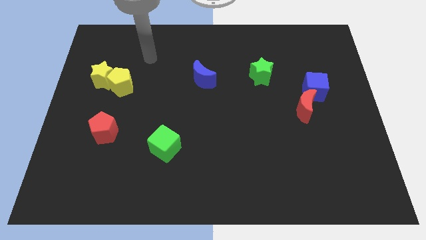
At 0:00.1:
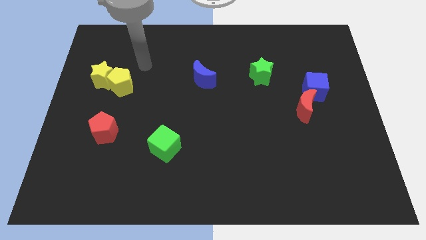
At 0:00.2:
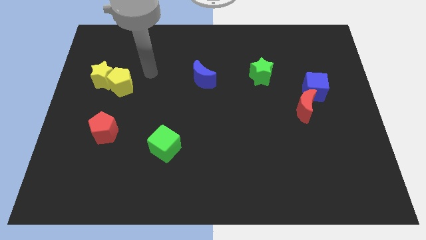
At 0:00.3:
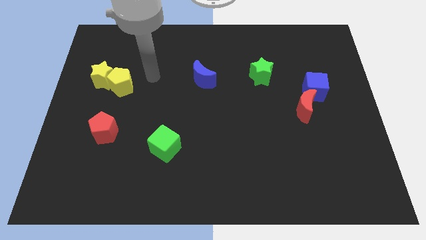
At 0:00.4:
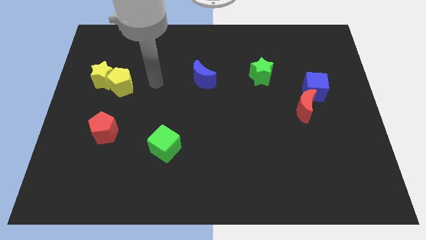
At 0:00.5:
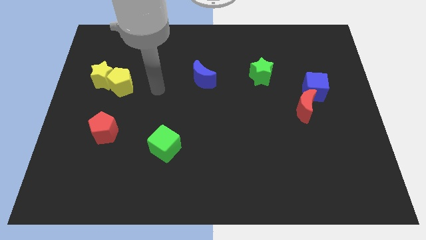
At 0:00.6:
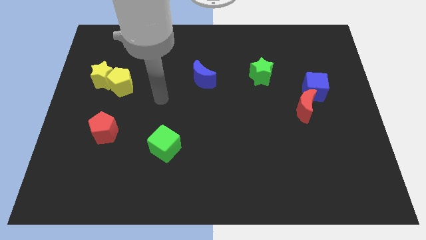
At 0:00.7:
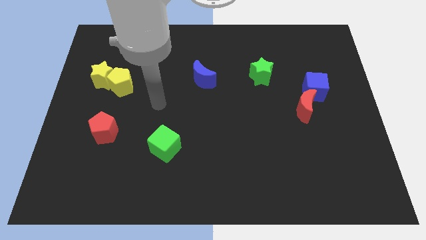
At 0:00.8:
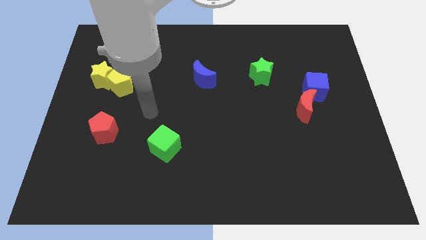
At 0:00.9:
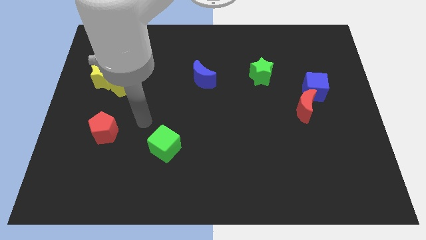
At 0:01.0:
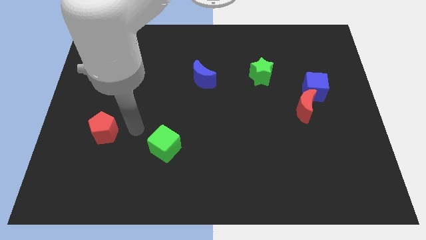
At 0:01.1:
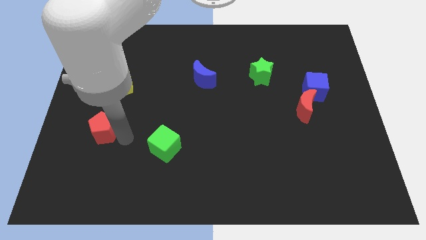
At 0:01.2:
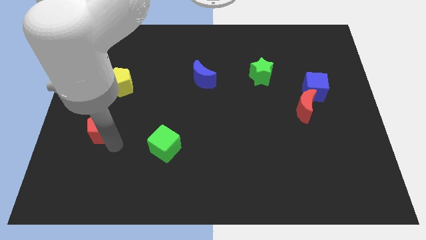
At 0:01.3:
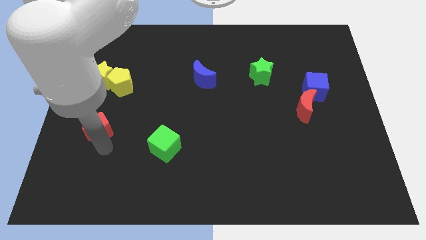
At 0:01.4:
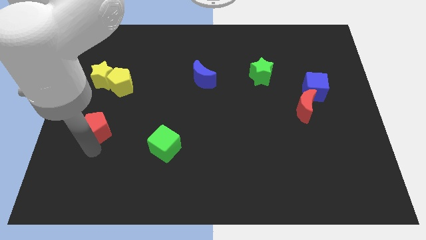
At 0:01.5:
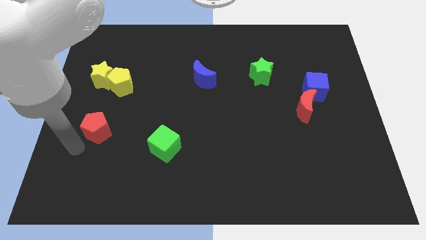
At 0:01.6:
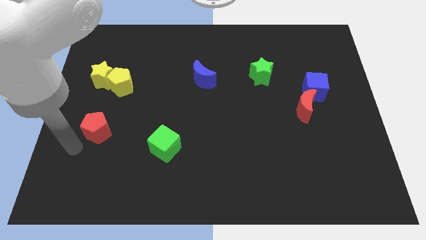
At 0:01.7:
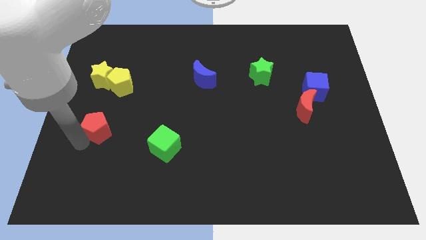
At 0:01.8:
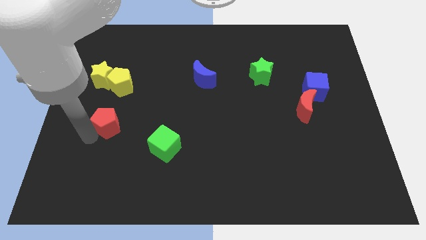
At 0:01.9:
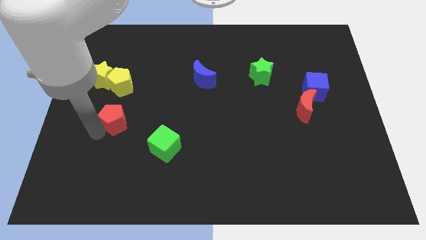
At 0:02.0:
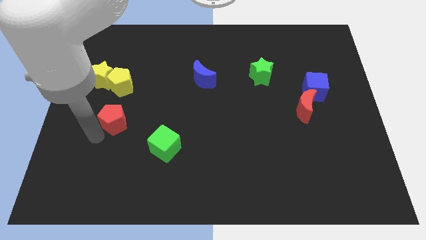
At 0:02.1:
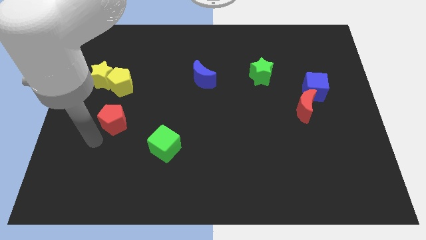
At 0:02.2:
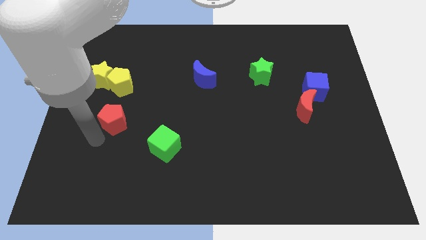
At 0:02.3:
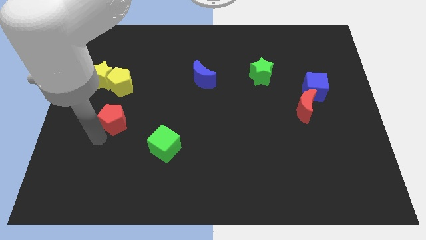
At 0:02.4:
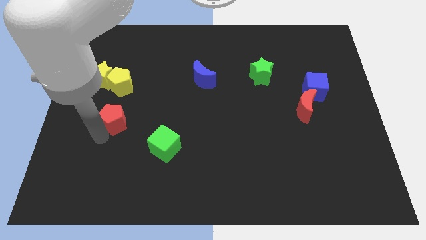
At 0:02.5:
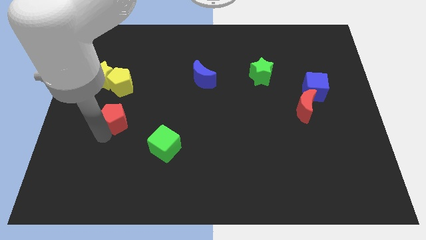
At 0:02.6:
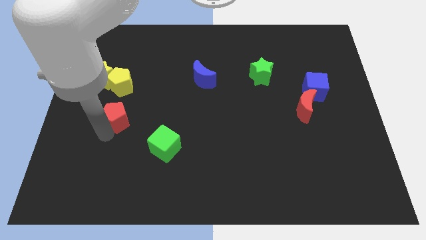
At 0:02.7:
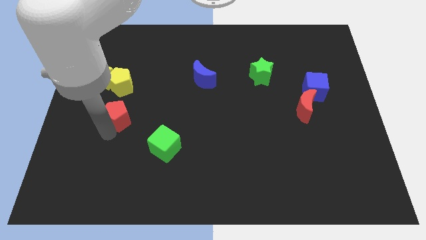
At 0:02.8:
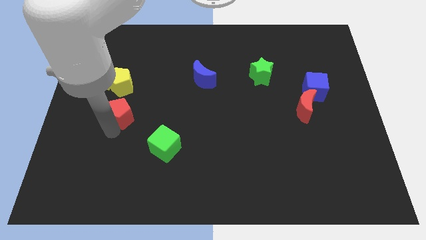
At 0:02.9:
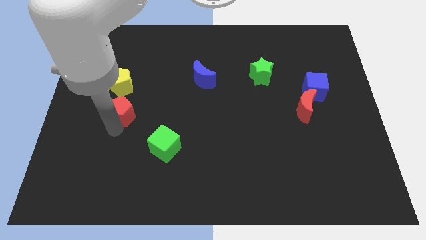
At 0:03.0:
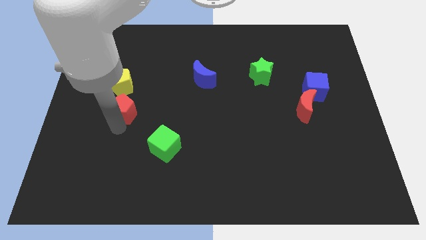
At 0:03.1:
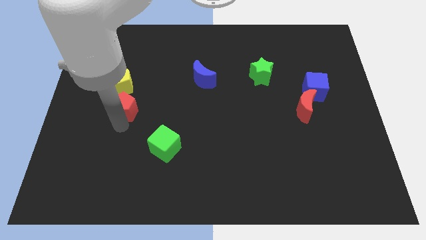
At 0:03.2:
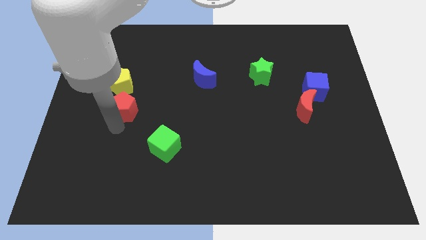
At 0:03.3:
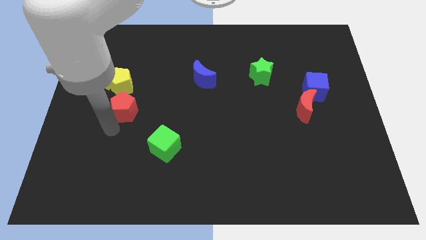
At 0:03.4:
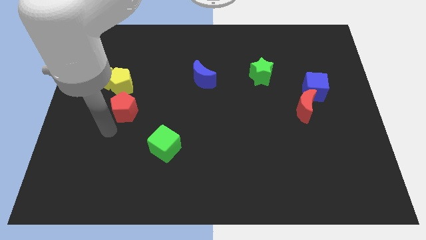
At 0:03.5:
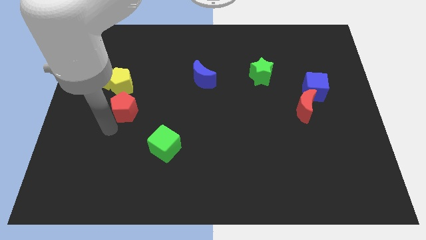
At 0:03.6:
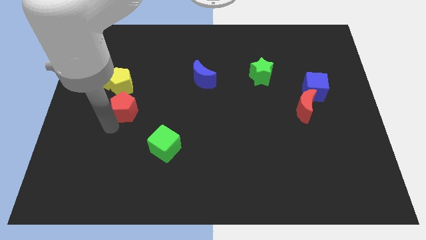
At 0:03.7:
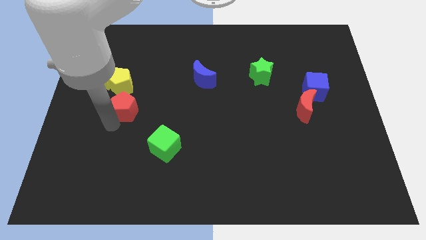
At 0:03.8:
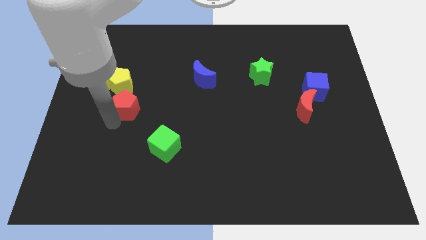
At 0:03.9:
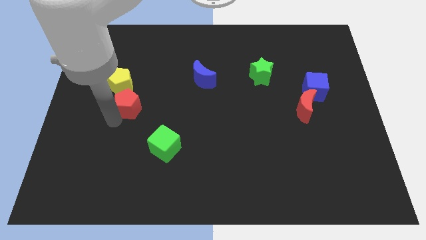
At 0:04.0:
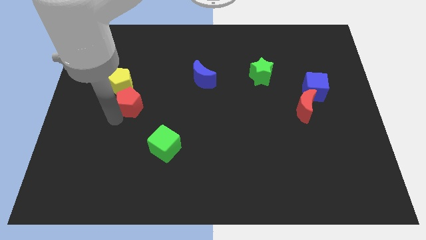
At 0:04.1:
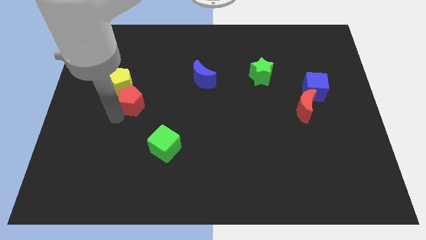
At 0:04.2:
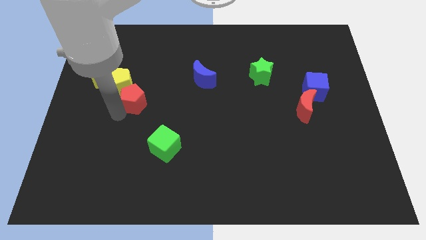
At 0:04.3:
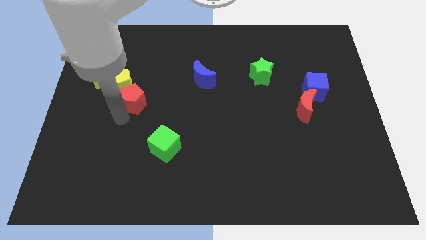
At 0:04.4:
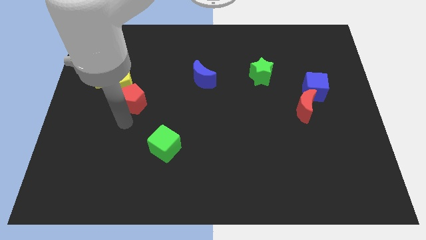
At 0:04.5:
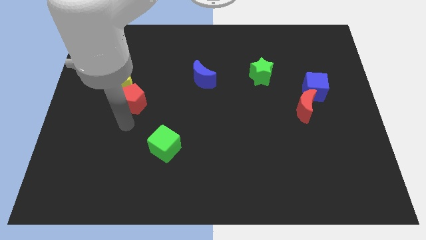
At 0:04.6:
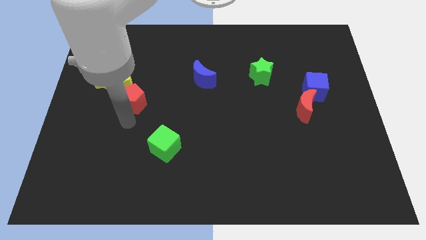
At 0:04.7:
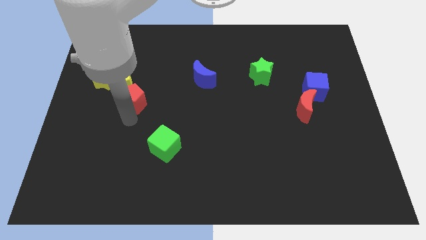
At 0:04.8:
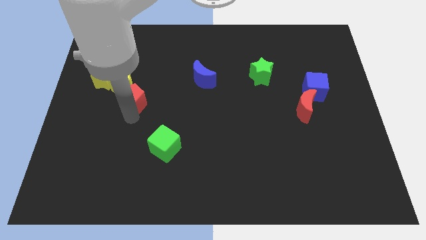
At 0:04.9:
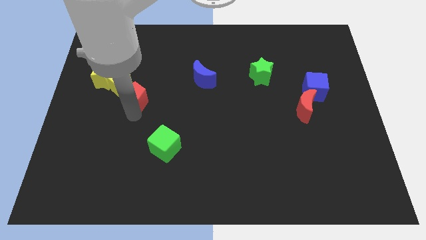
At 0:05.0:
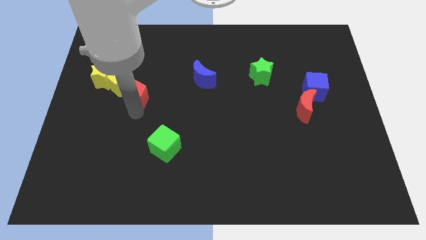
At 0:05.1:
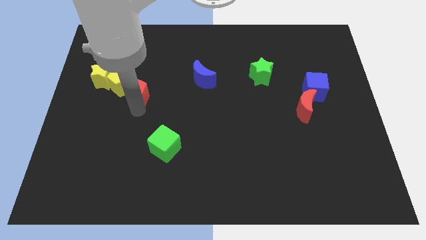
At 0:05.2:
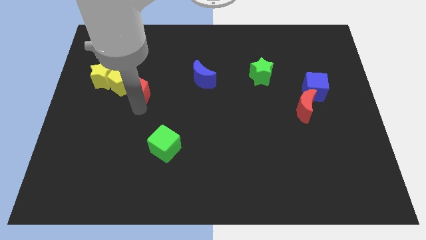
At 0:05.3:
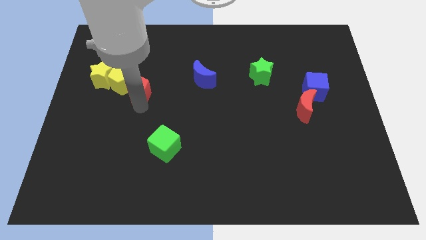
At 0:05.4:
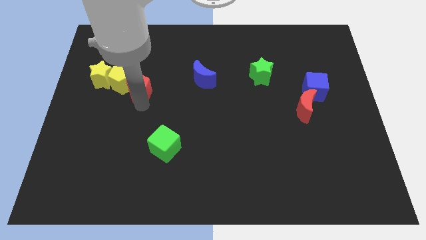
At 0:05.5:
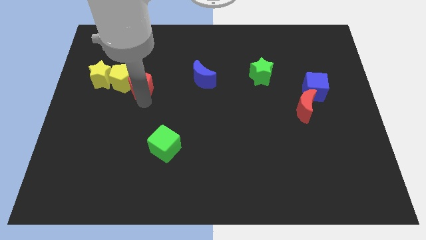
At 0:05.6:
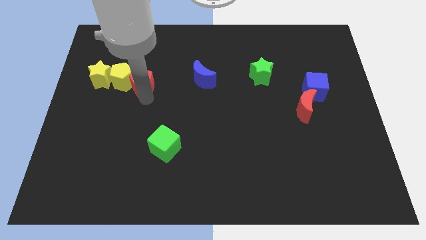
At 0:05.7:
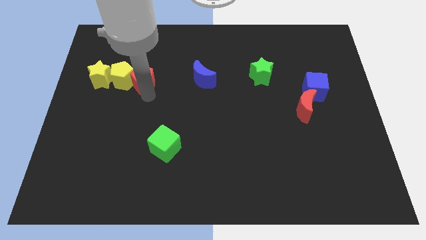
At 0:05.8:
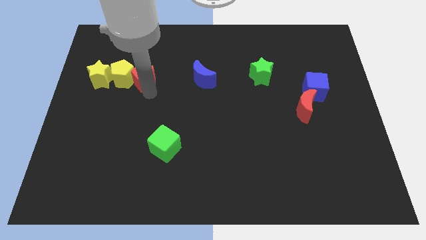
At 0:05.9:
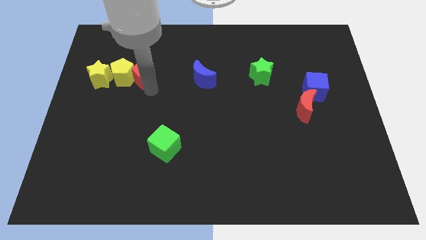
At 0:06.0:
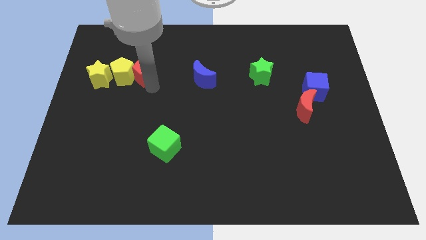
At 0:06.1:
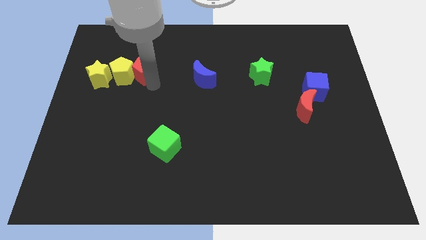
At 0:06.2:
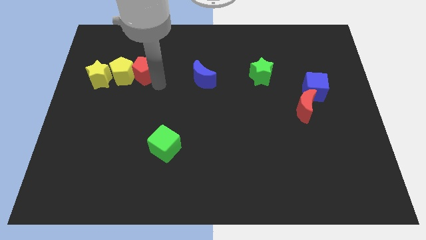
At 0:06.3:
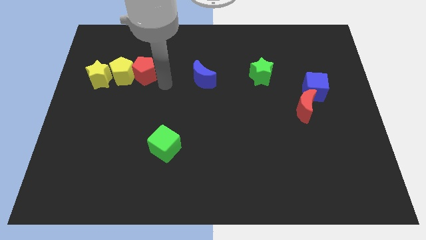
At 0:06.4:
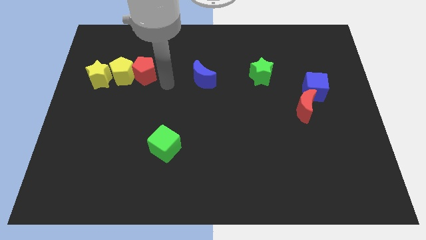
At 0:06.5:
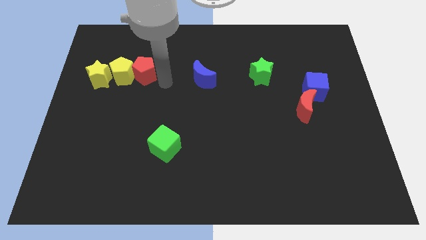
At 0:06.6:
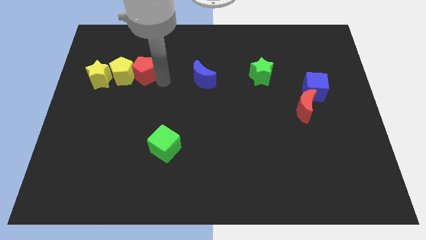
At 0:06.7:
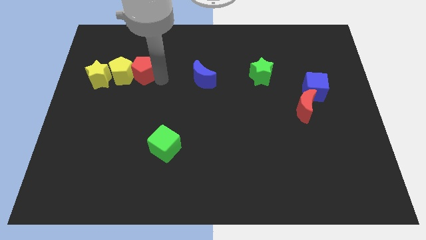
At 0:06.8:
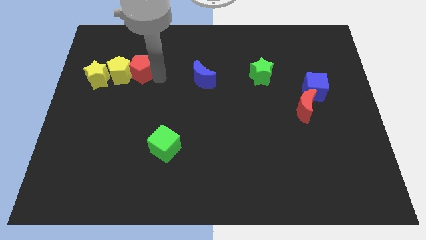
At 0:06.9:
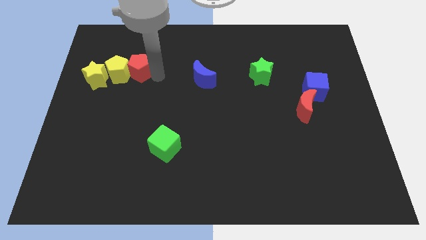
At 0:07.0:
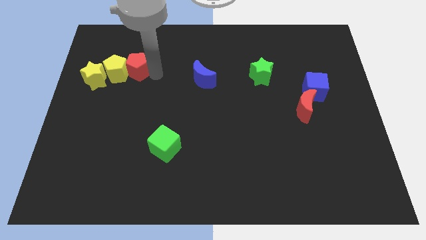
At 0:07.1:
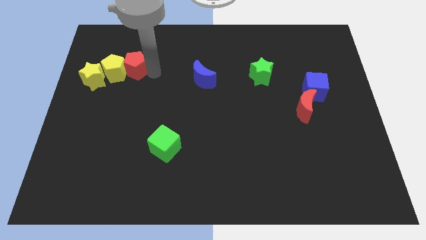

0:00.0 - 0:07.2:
slide the red pentagon diagonally up and to the right of the yellow star
